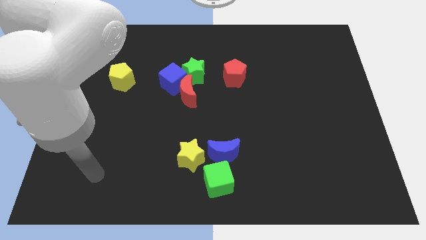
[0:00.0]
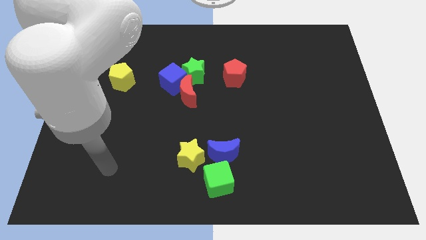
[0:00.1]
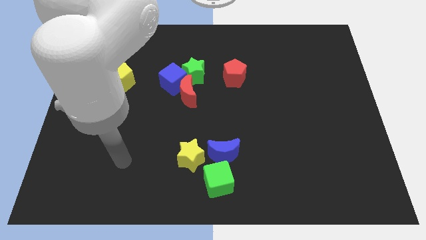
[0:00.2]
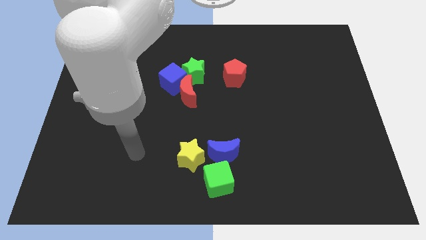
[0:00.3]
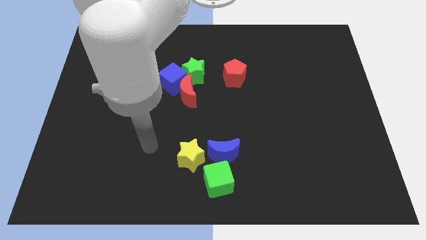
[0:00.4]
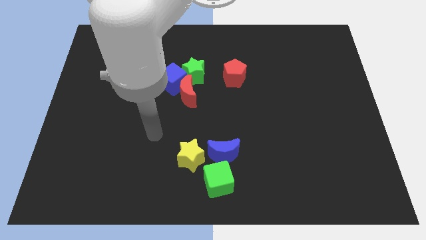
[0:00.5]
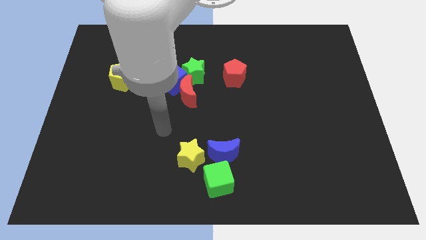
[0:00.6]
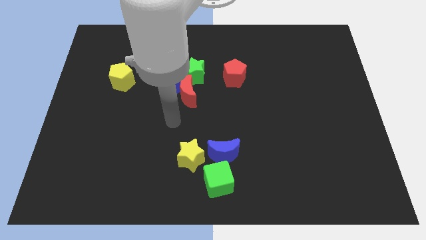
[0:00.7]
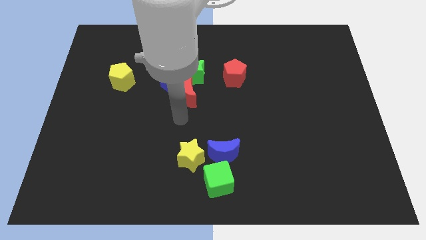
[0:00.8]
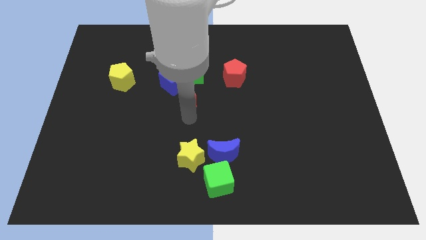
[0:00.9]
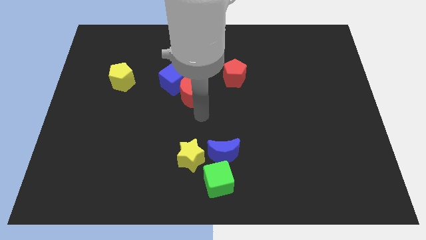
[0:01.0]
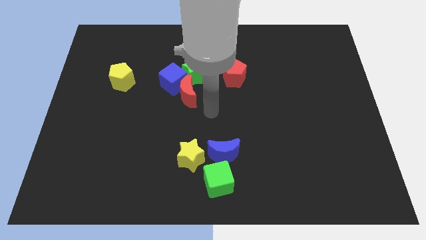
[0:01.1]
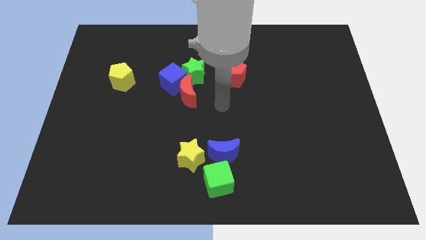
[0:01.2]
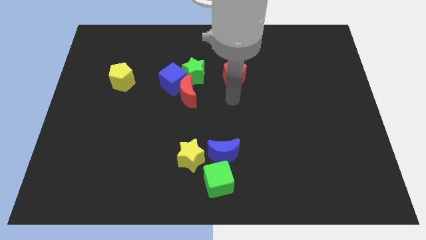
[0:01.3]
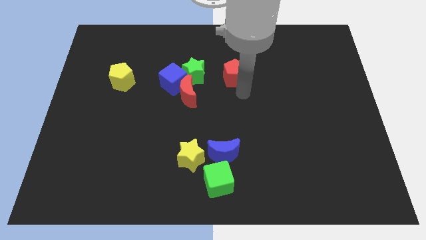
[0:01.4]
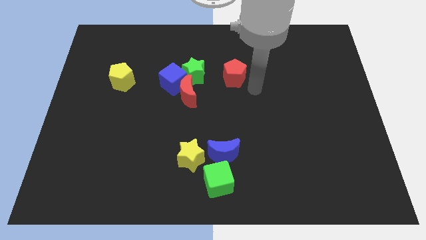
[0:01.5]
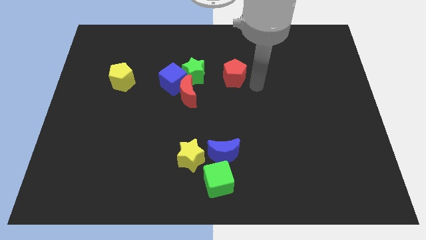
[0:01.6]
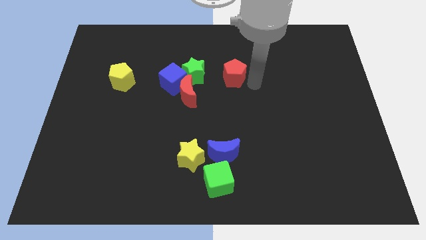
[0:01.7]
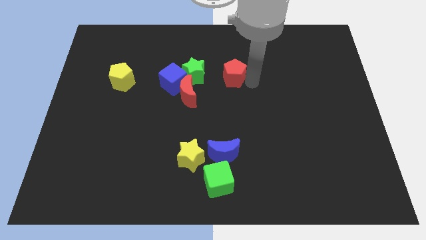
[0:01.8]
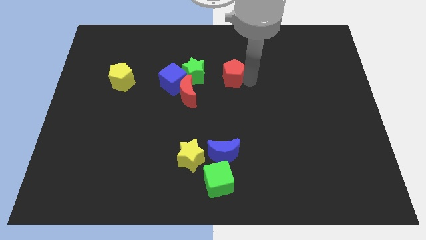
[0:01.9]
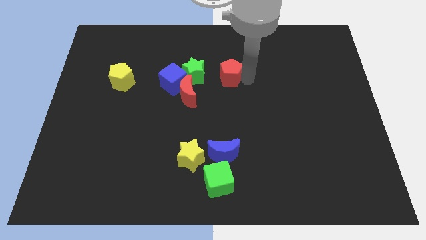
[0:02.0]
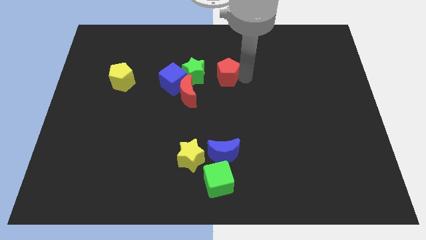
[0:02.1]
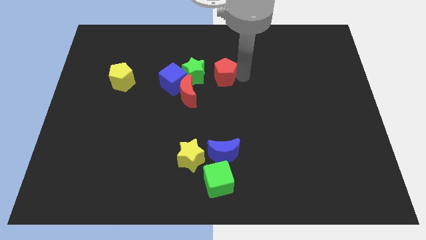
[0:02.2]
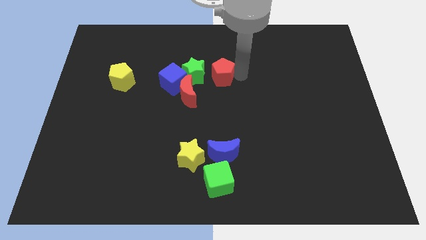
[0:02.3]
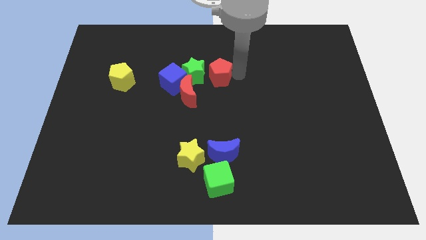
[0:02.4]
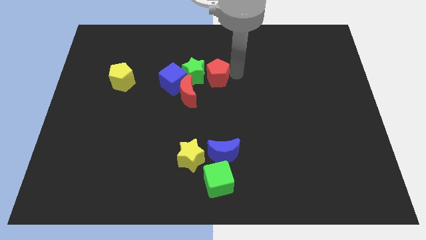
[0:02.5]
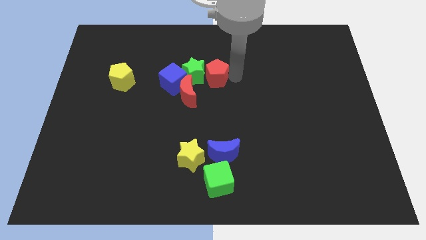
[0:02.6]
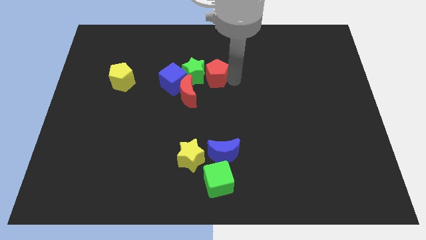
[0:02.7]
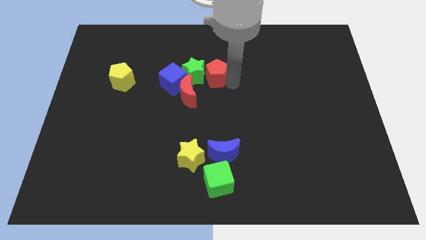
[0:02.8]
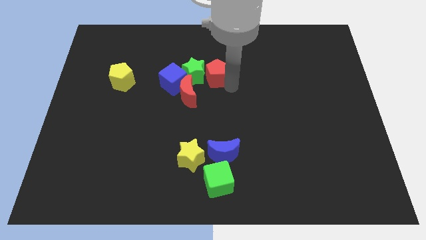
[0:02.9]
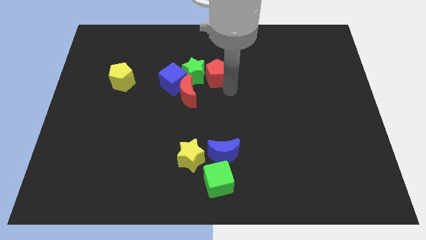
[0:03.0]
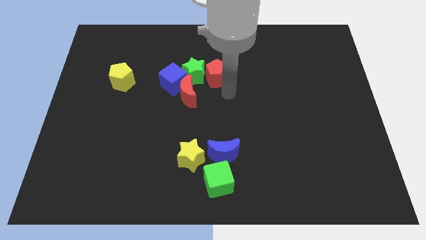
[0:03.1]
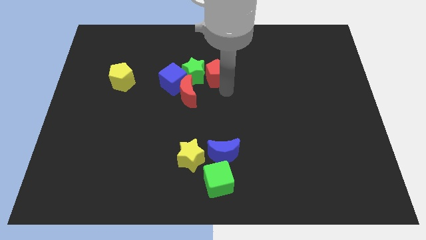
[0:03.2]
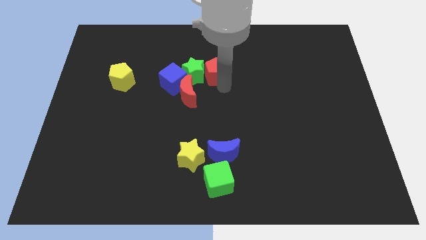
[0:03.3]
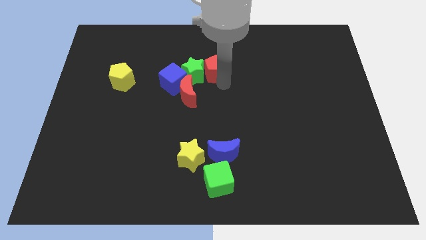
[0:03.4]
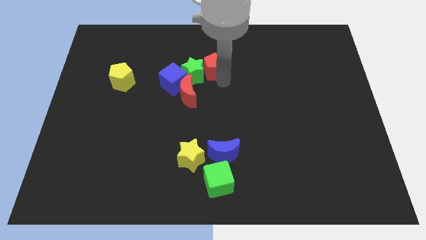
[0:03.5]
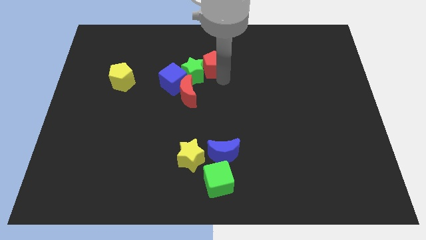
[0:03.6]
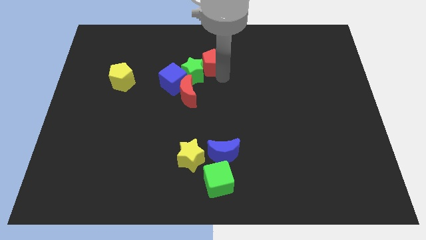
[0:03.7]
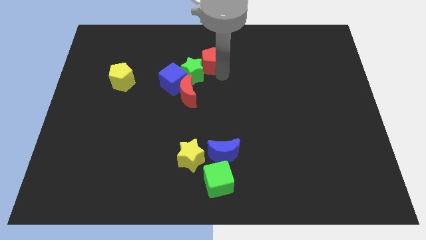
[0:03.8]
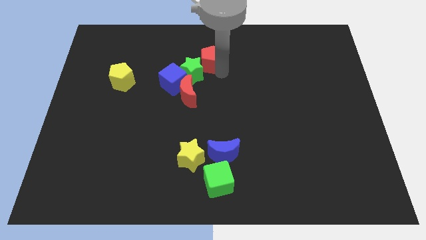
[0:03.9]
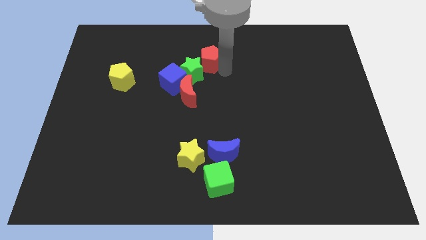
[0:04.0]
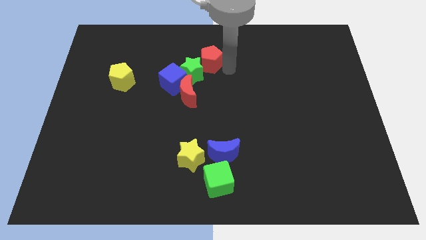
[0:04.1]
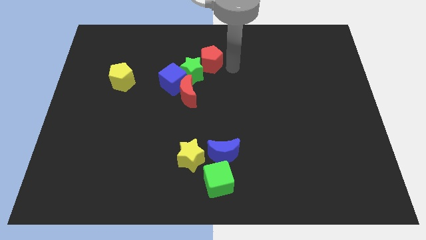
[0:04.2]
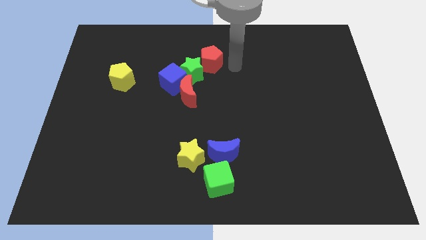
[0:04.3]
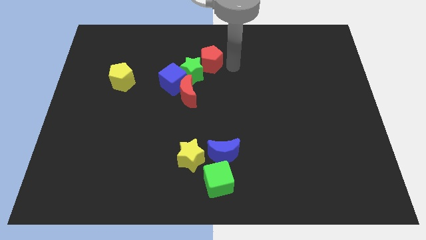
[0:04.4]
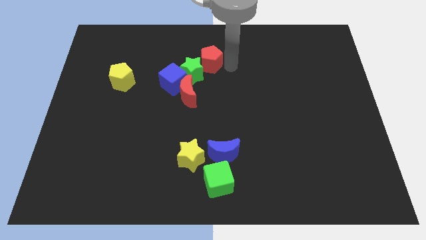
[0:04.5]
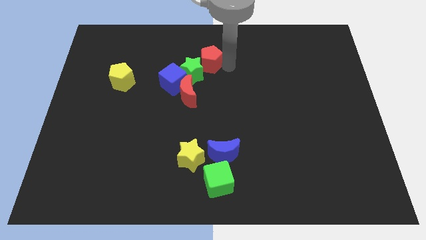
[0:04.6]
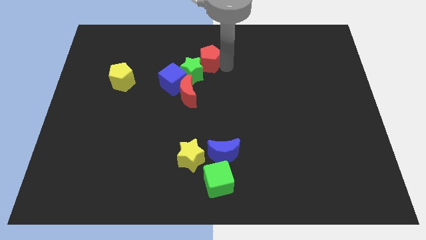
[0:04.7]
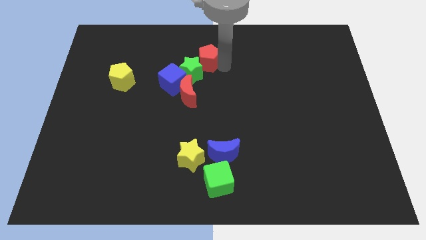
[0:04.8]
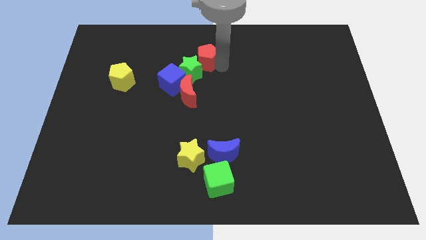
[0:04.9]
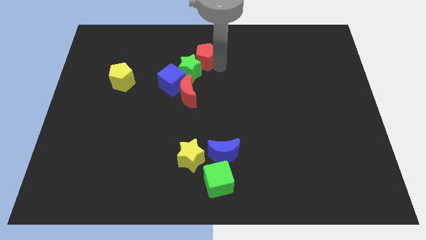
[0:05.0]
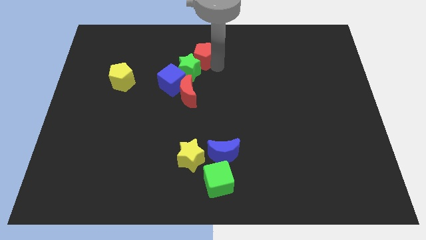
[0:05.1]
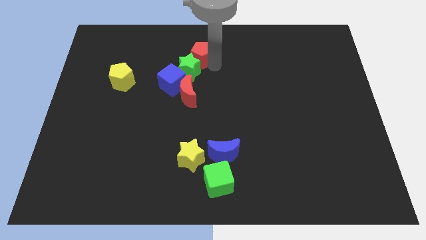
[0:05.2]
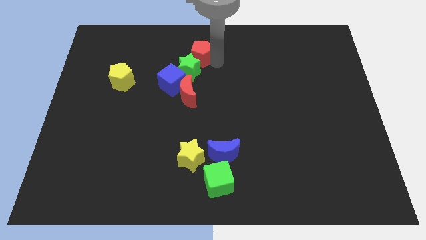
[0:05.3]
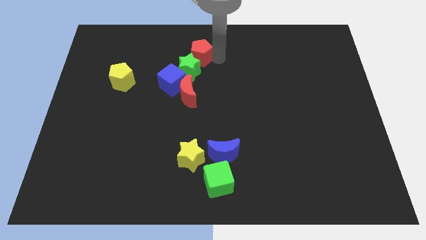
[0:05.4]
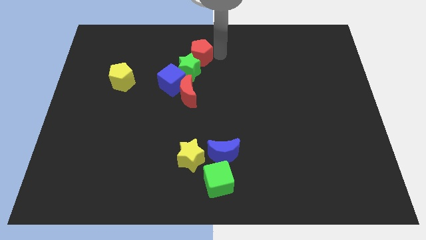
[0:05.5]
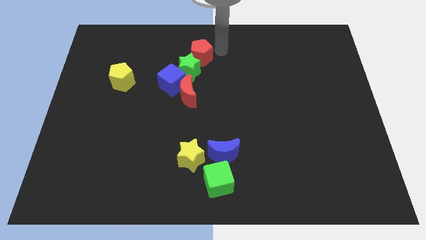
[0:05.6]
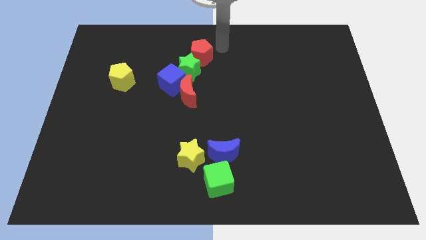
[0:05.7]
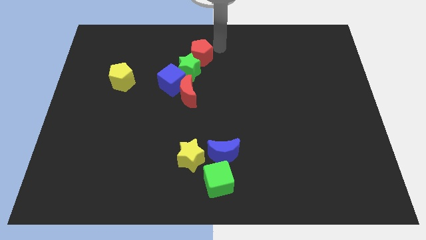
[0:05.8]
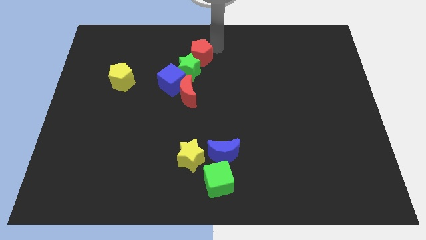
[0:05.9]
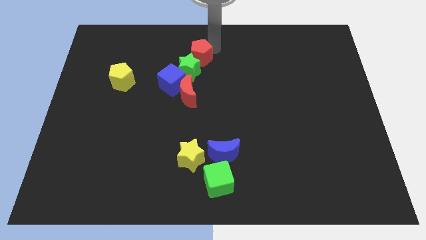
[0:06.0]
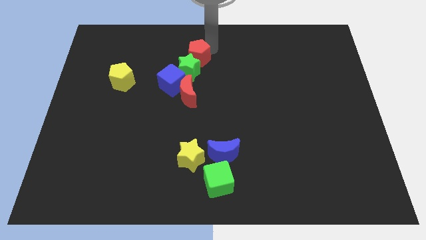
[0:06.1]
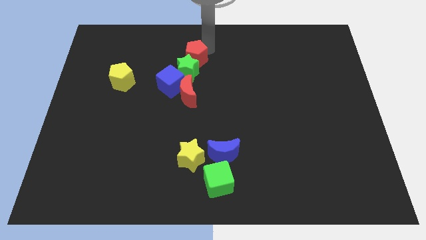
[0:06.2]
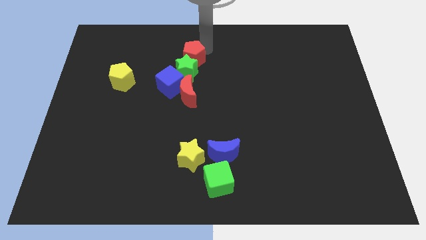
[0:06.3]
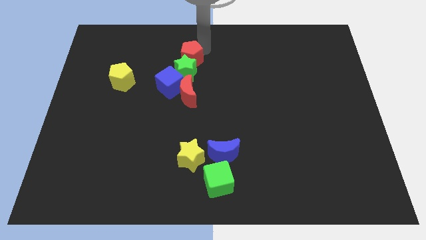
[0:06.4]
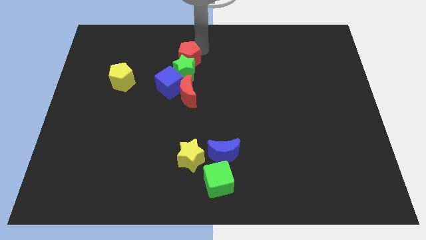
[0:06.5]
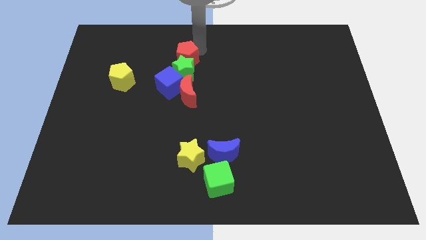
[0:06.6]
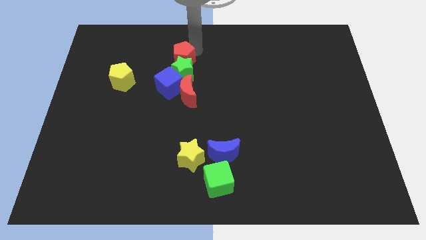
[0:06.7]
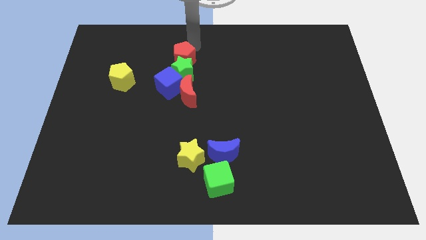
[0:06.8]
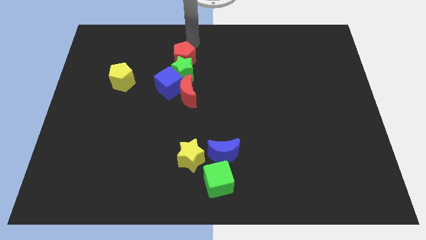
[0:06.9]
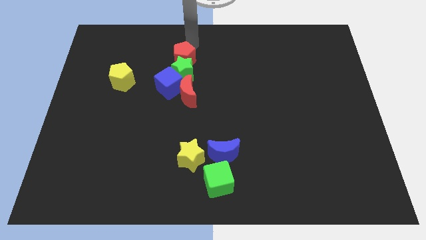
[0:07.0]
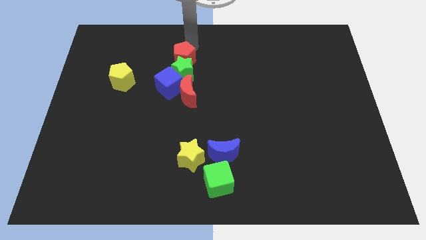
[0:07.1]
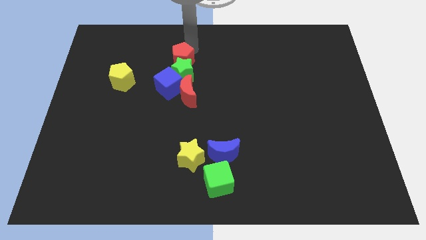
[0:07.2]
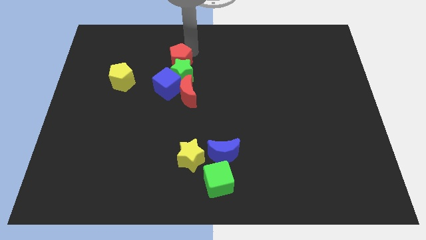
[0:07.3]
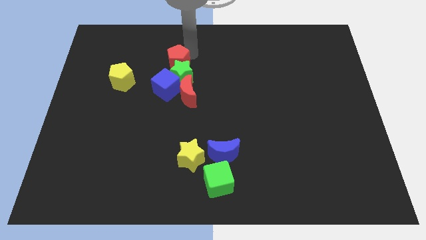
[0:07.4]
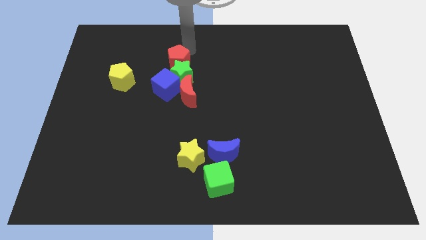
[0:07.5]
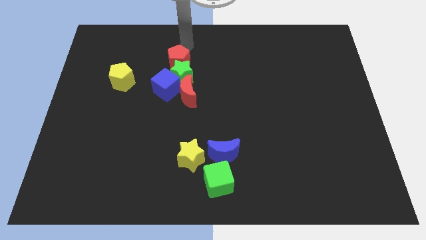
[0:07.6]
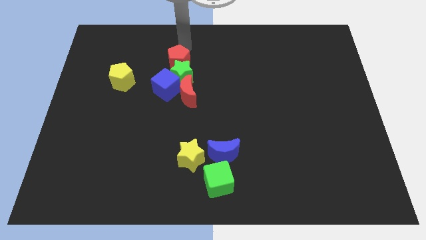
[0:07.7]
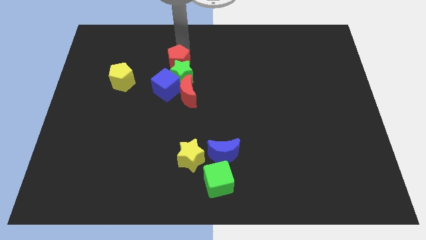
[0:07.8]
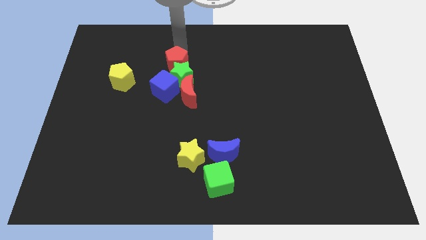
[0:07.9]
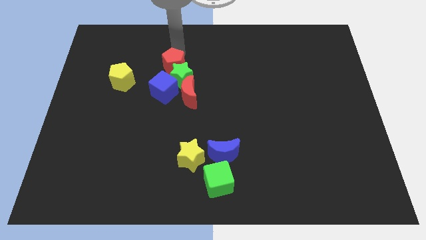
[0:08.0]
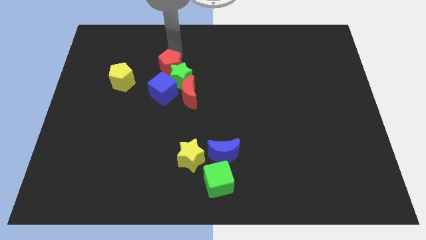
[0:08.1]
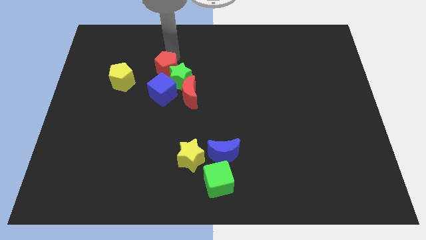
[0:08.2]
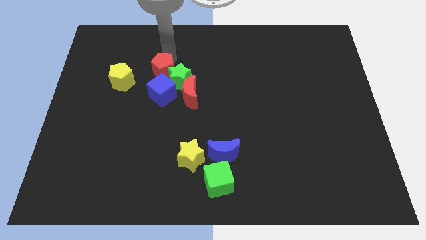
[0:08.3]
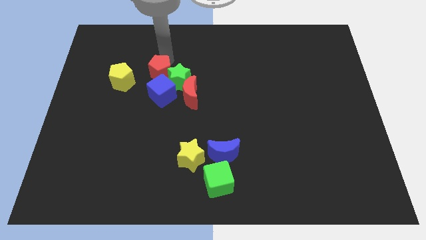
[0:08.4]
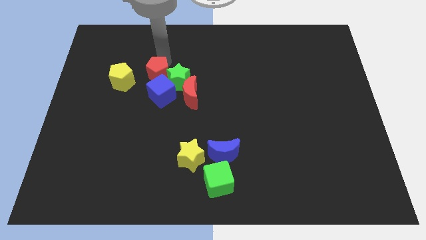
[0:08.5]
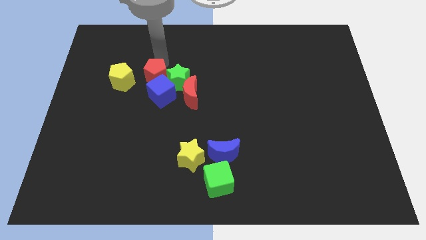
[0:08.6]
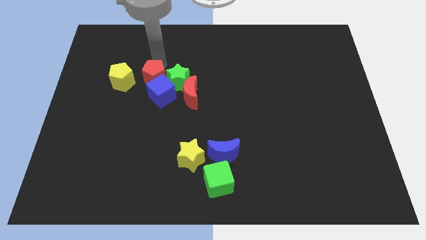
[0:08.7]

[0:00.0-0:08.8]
put the red pentagon towards the blue cube
